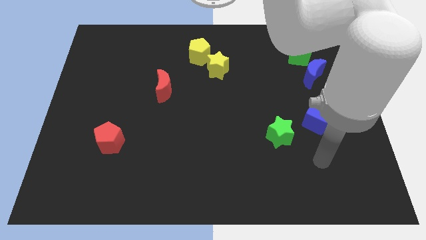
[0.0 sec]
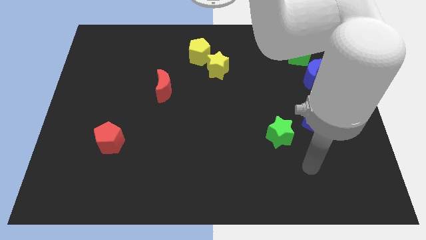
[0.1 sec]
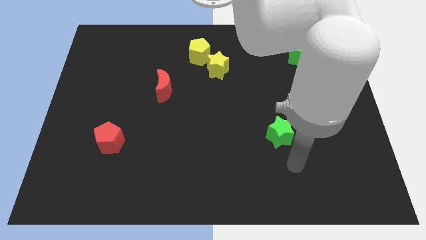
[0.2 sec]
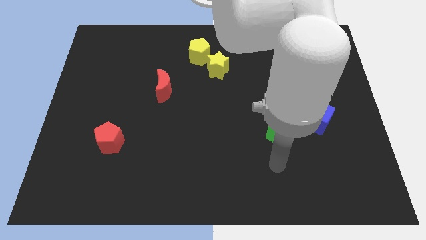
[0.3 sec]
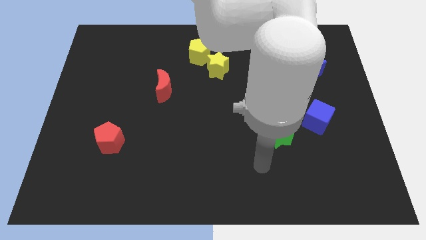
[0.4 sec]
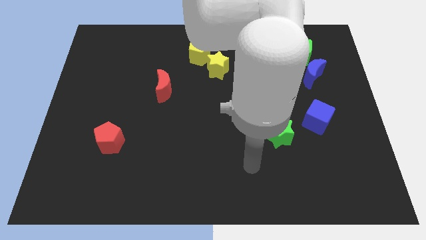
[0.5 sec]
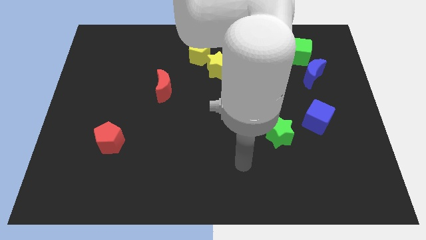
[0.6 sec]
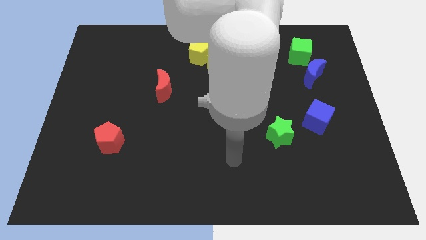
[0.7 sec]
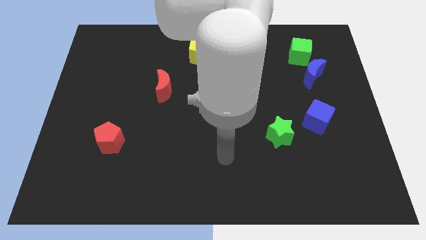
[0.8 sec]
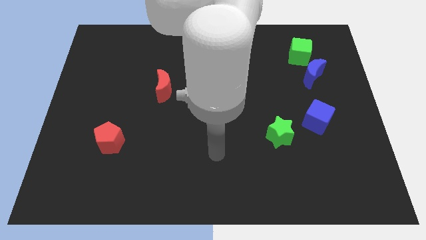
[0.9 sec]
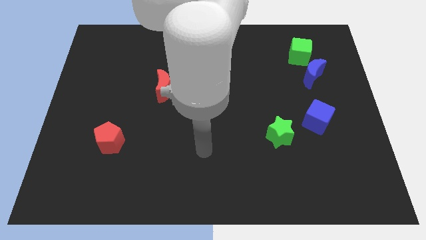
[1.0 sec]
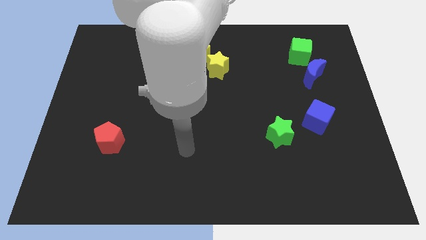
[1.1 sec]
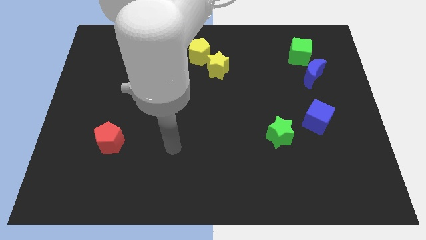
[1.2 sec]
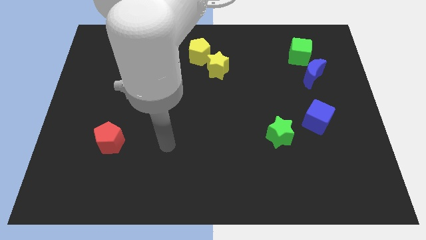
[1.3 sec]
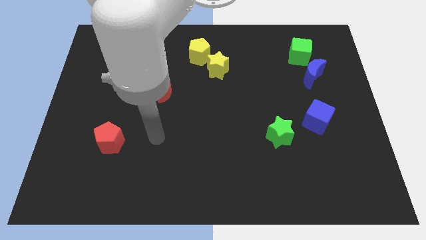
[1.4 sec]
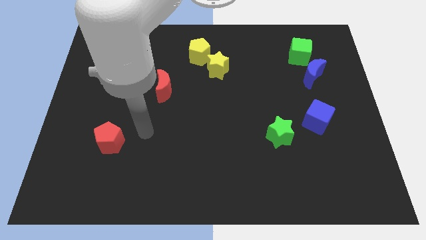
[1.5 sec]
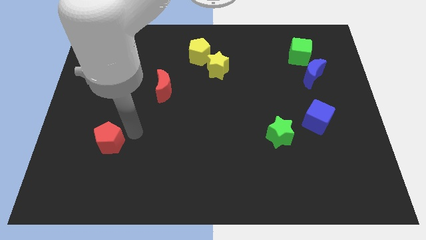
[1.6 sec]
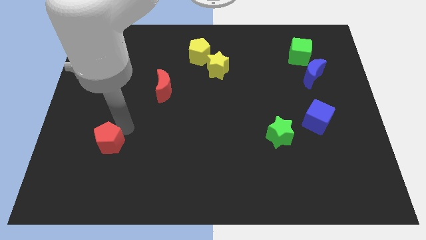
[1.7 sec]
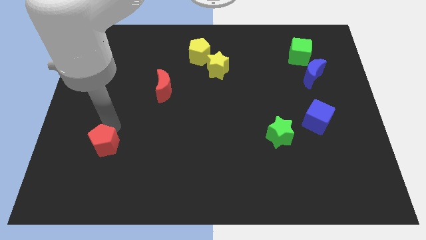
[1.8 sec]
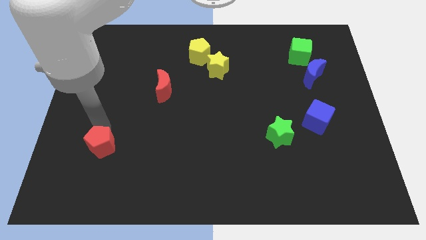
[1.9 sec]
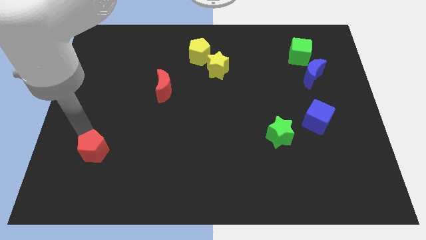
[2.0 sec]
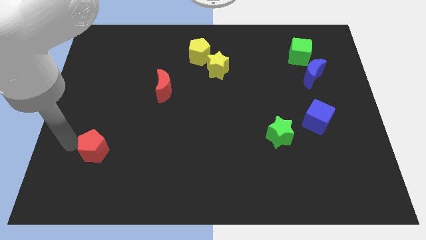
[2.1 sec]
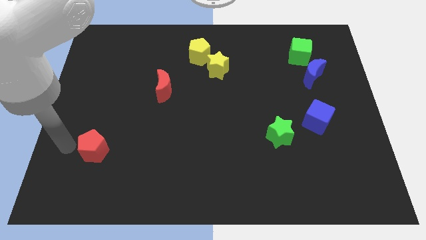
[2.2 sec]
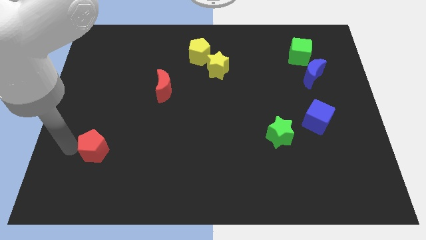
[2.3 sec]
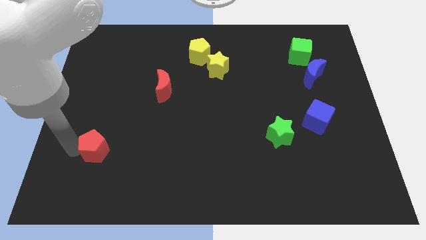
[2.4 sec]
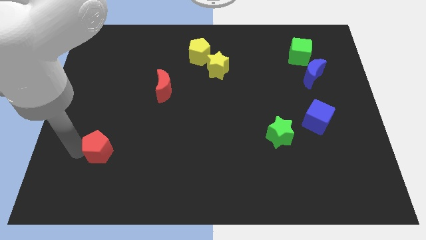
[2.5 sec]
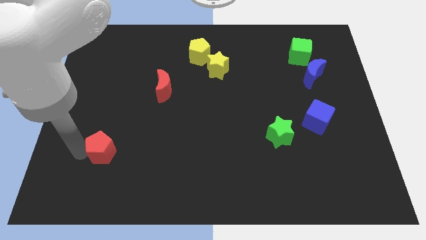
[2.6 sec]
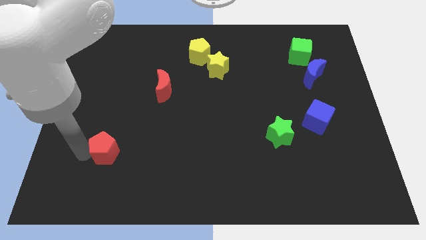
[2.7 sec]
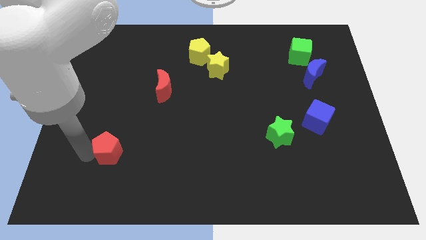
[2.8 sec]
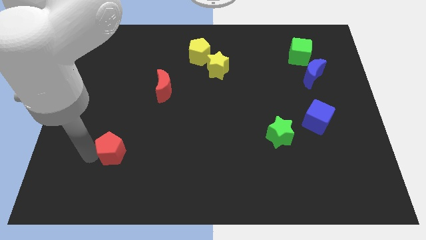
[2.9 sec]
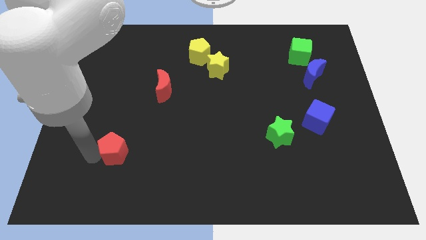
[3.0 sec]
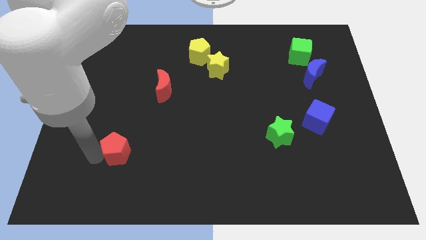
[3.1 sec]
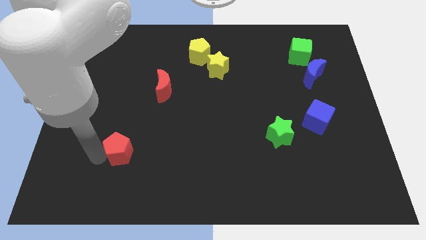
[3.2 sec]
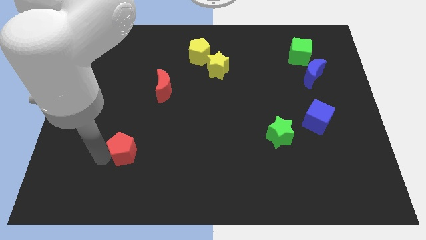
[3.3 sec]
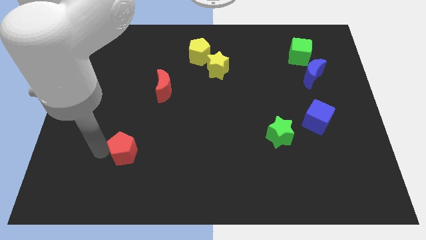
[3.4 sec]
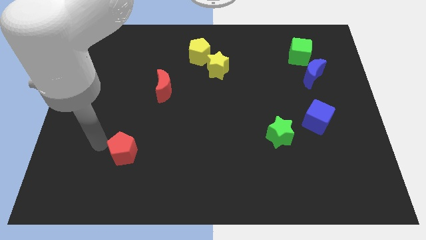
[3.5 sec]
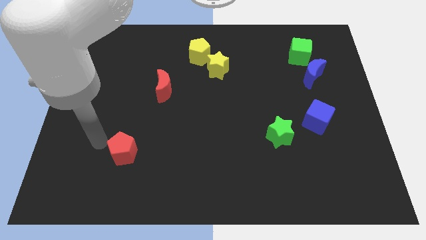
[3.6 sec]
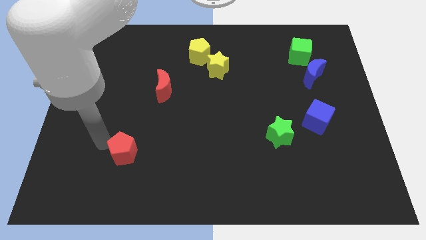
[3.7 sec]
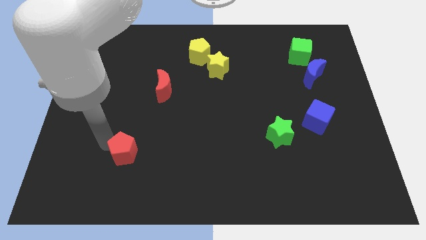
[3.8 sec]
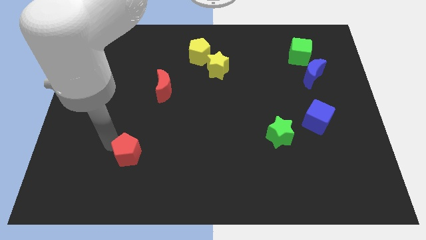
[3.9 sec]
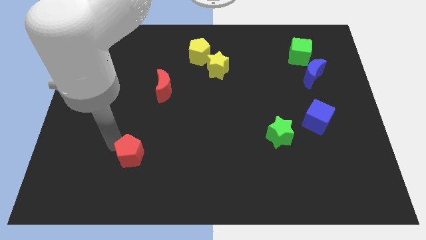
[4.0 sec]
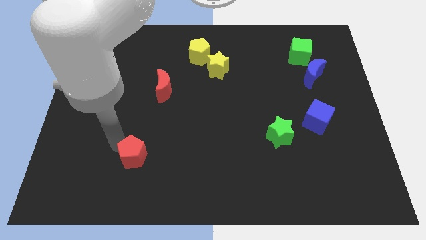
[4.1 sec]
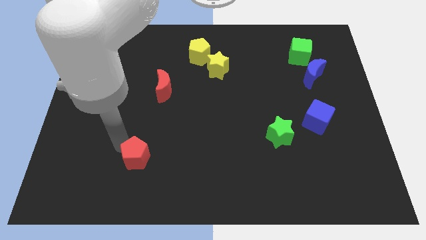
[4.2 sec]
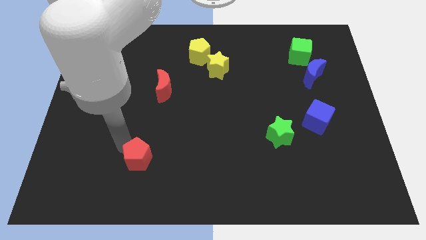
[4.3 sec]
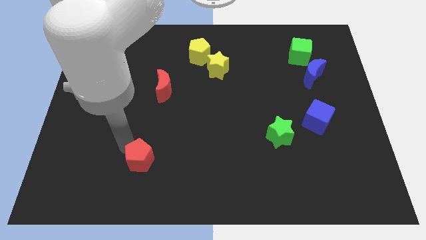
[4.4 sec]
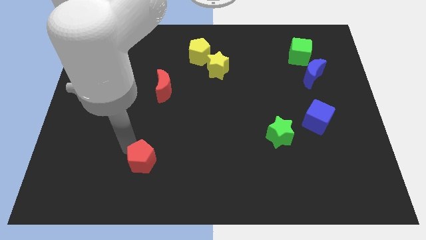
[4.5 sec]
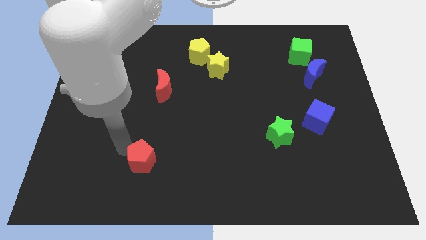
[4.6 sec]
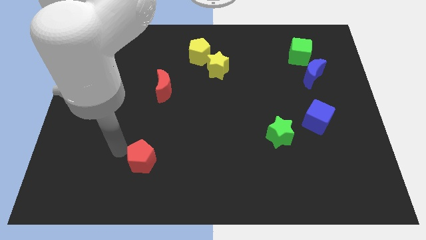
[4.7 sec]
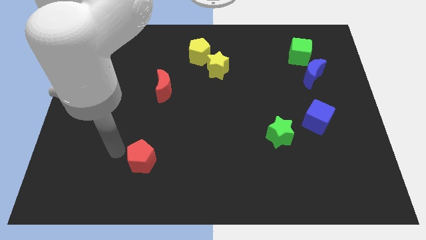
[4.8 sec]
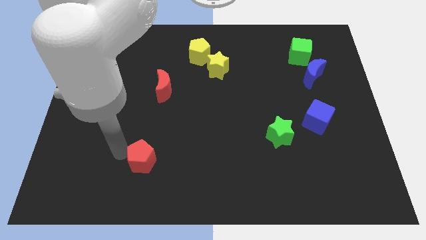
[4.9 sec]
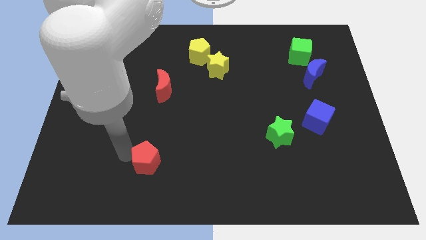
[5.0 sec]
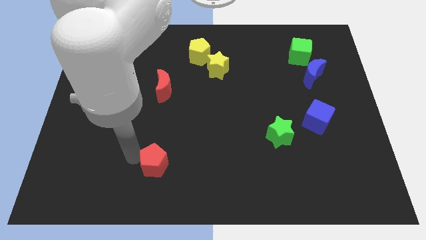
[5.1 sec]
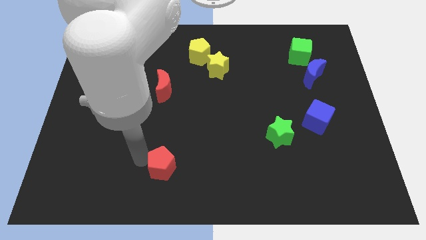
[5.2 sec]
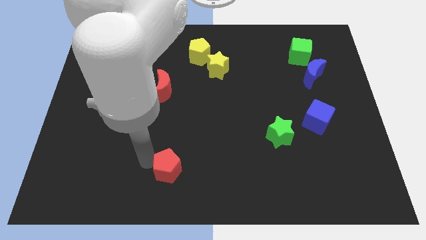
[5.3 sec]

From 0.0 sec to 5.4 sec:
put the red pentagon to the bottom side

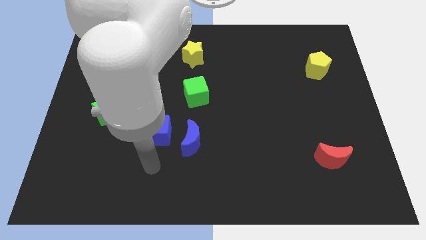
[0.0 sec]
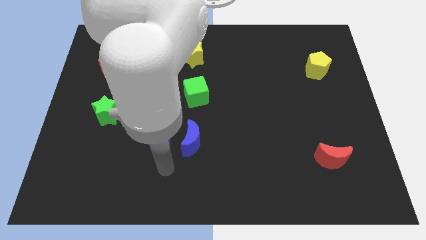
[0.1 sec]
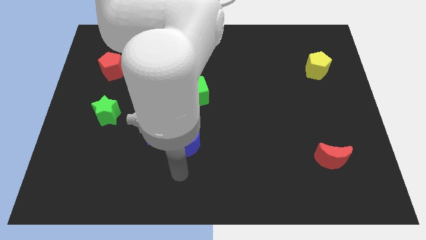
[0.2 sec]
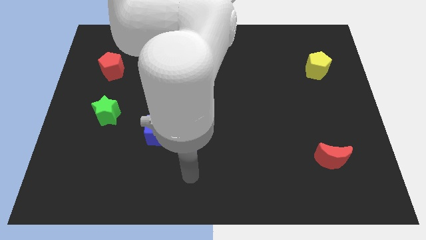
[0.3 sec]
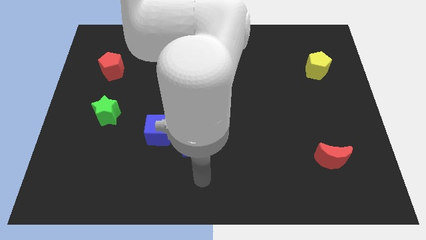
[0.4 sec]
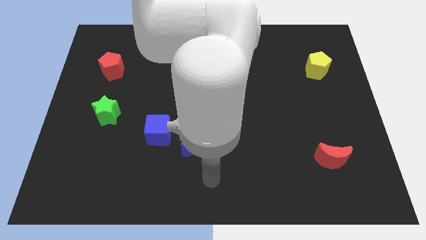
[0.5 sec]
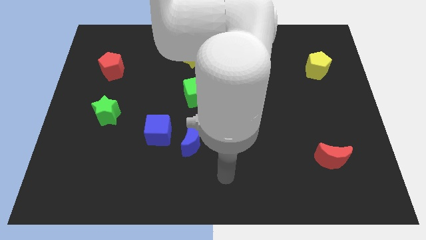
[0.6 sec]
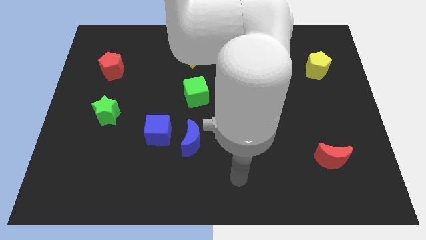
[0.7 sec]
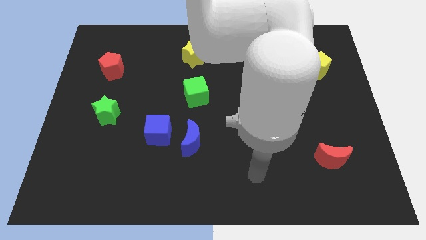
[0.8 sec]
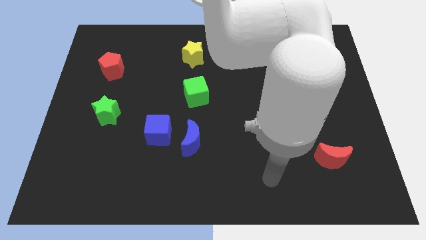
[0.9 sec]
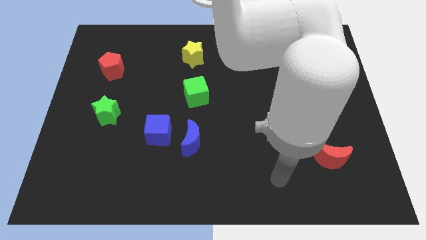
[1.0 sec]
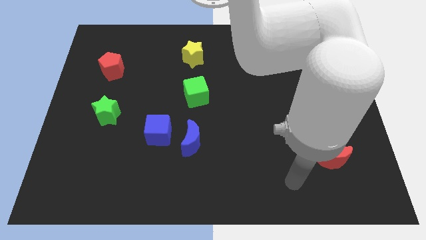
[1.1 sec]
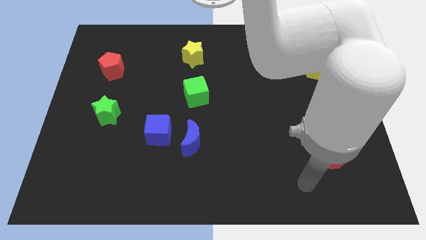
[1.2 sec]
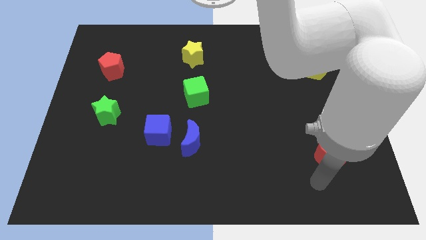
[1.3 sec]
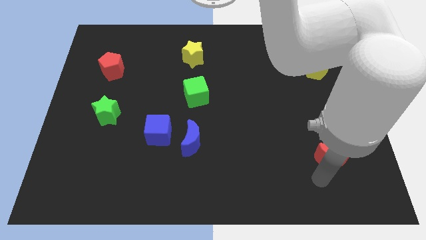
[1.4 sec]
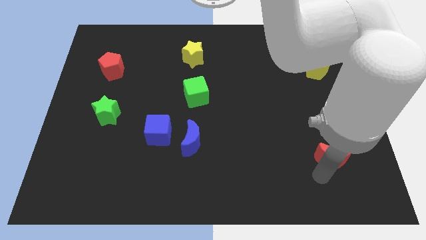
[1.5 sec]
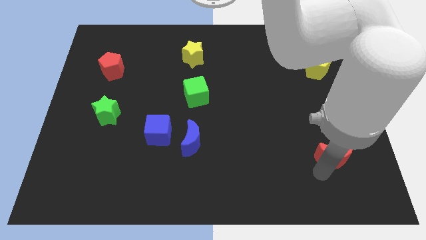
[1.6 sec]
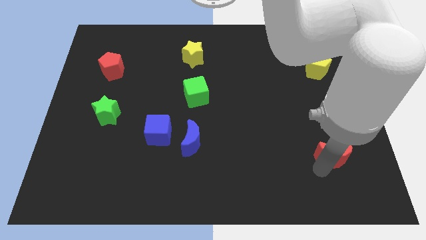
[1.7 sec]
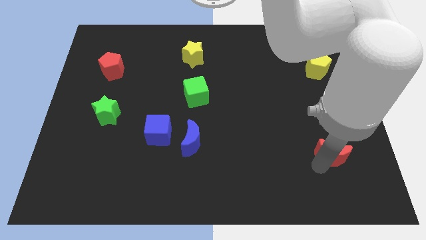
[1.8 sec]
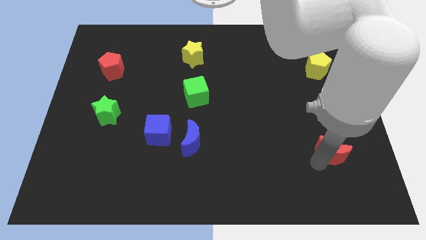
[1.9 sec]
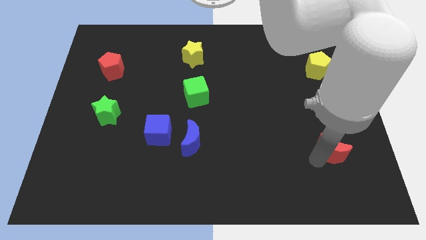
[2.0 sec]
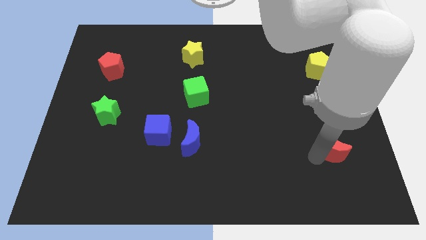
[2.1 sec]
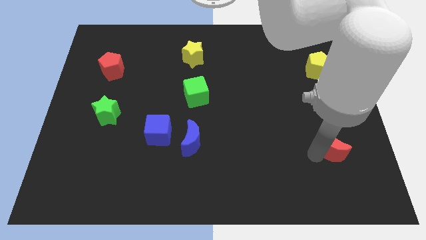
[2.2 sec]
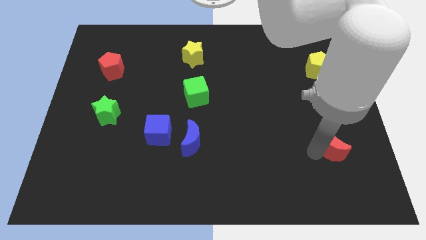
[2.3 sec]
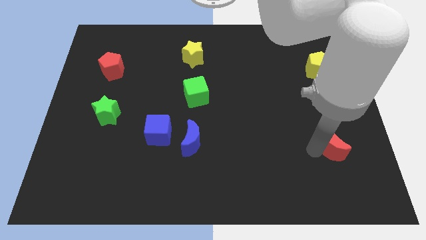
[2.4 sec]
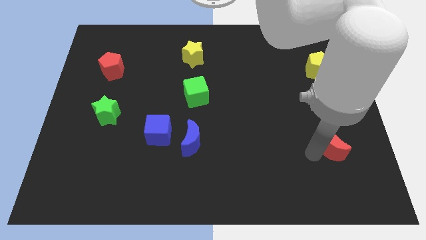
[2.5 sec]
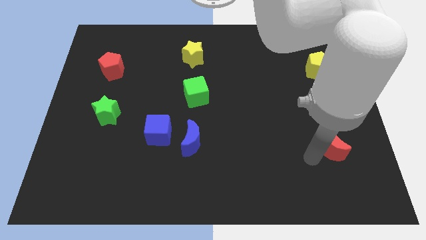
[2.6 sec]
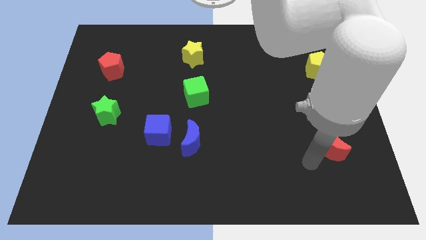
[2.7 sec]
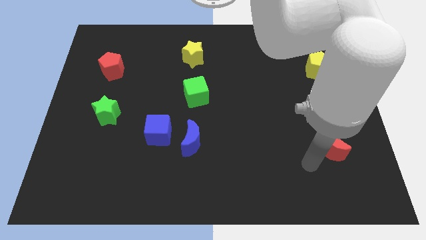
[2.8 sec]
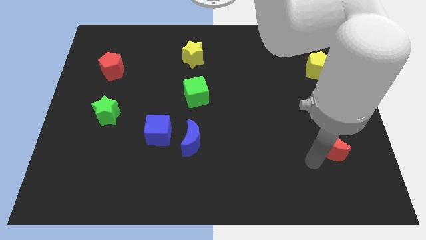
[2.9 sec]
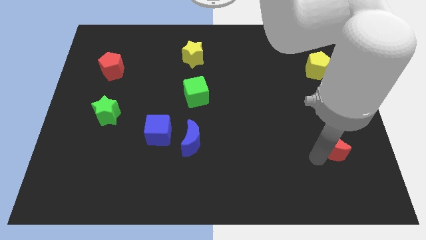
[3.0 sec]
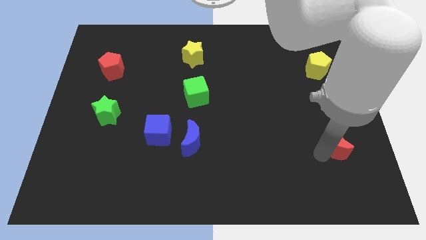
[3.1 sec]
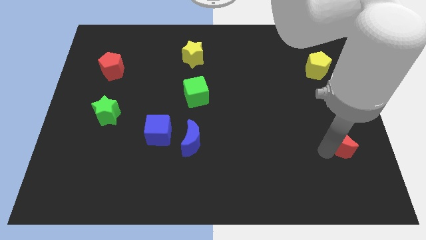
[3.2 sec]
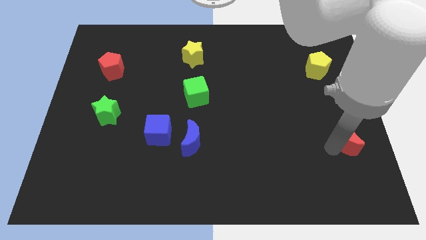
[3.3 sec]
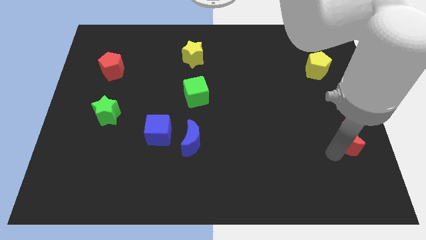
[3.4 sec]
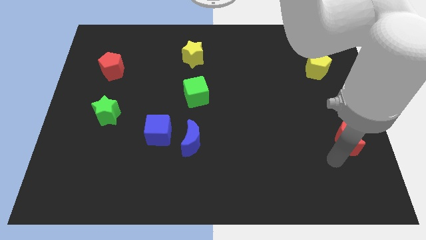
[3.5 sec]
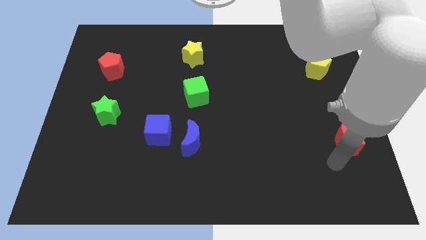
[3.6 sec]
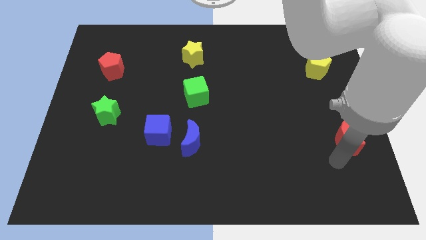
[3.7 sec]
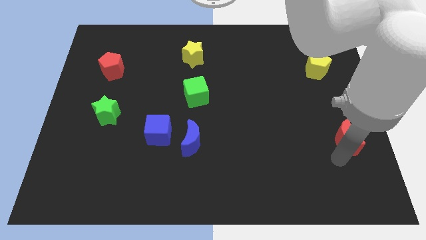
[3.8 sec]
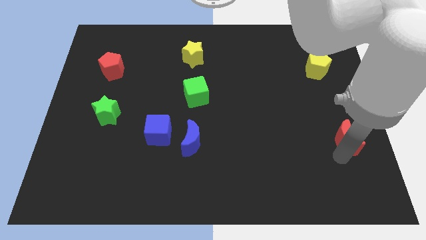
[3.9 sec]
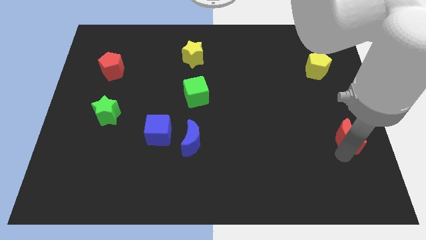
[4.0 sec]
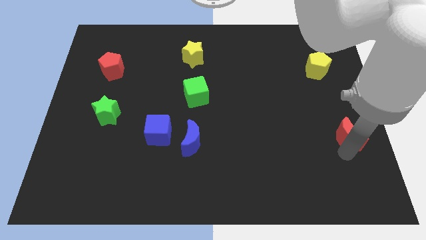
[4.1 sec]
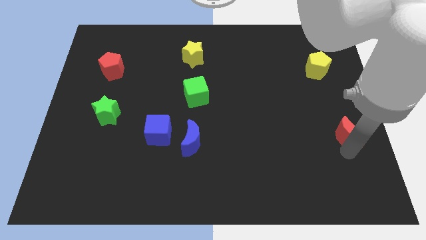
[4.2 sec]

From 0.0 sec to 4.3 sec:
slide the red moon to the center right
